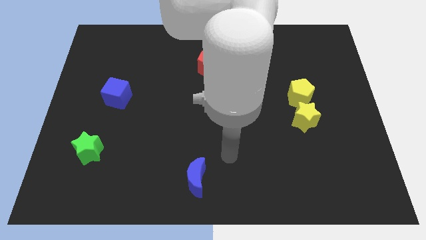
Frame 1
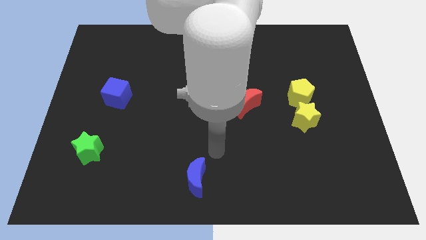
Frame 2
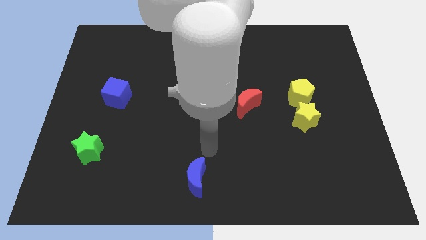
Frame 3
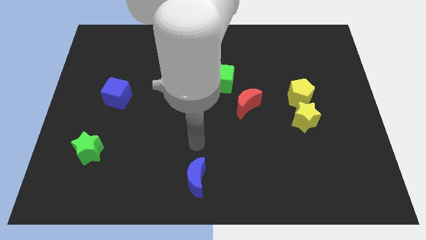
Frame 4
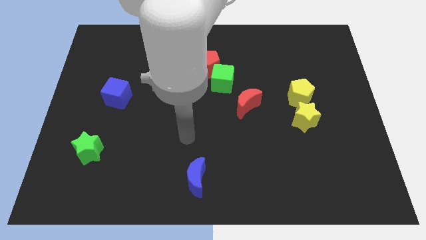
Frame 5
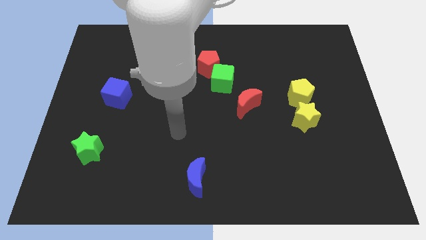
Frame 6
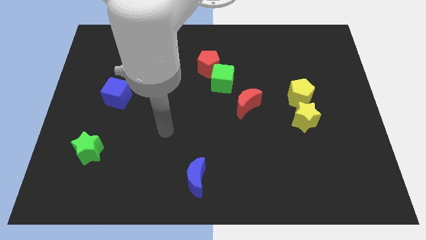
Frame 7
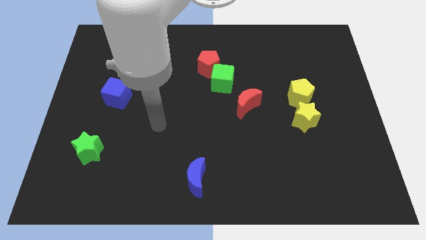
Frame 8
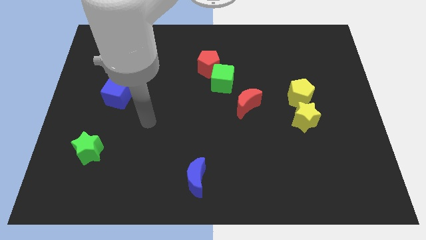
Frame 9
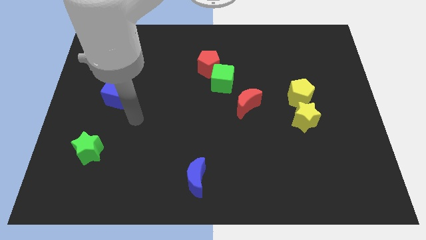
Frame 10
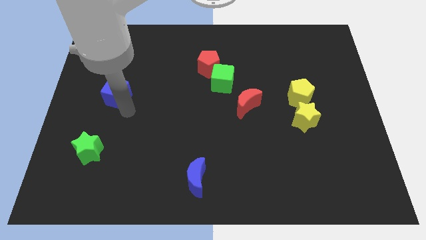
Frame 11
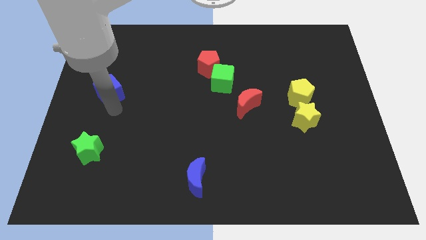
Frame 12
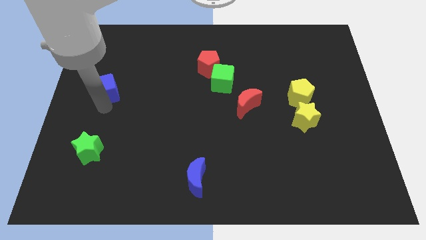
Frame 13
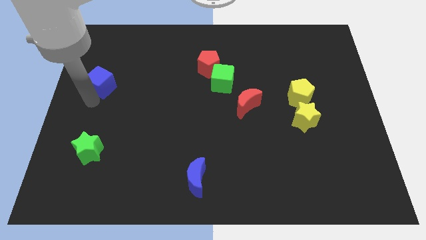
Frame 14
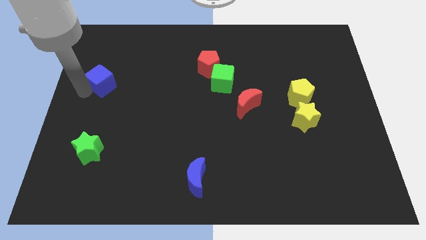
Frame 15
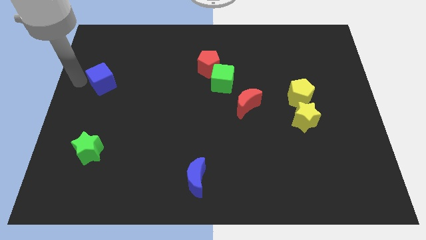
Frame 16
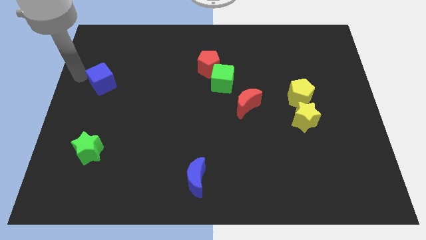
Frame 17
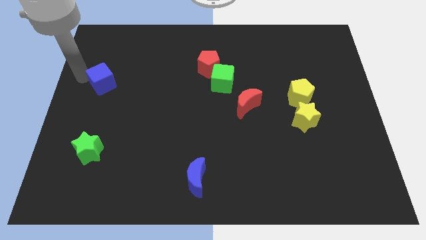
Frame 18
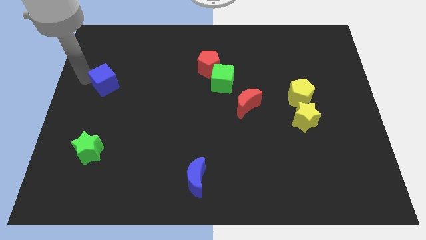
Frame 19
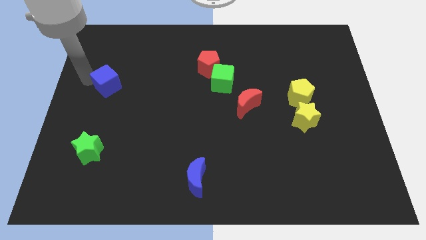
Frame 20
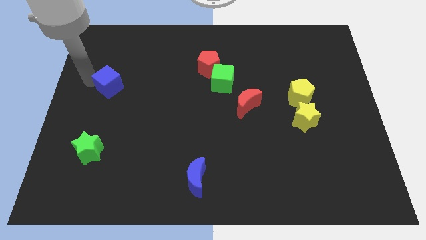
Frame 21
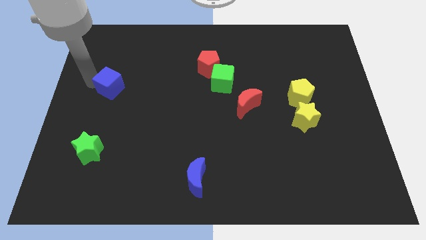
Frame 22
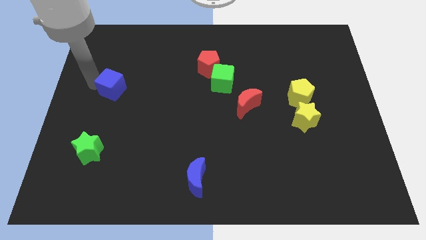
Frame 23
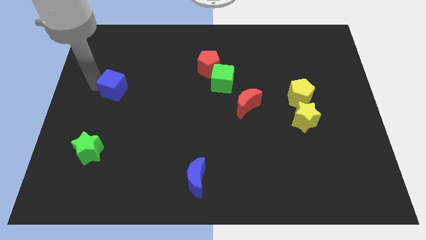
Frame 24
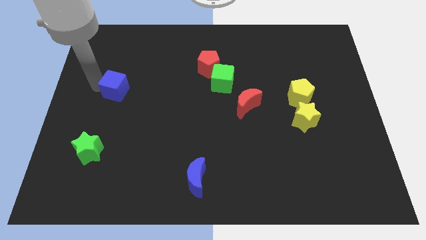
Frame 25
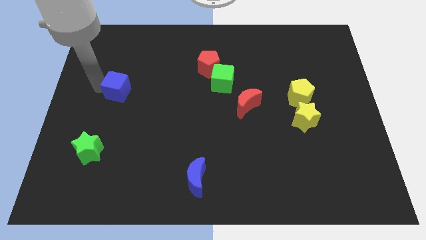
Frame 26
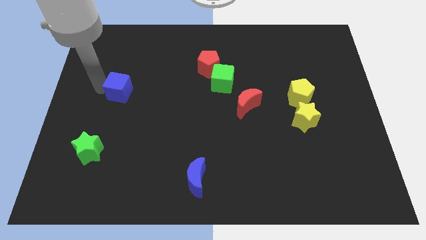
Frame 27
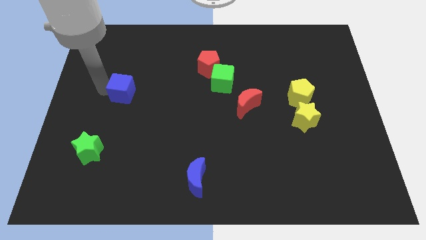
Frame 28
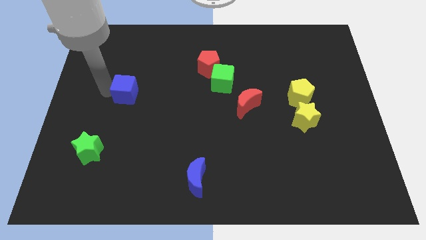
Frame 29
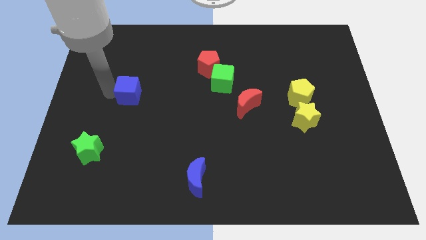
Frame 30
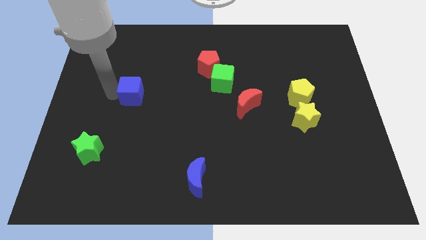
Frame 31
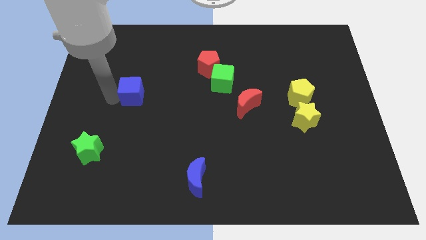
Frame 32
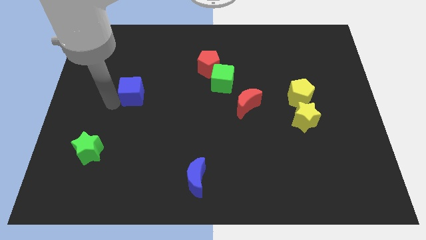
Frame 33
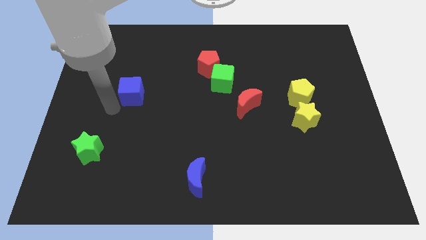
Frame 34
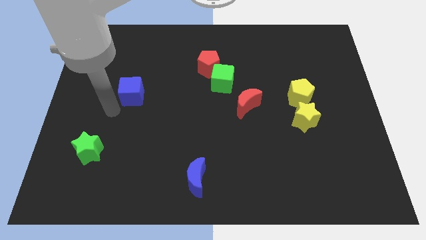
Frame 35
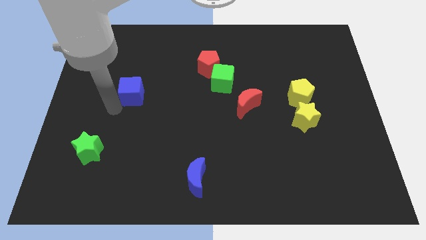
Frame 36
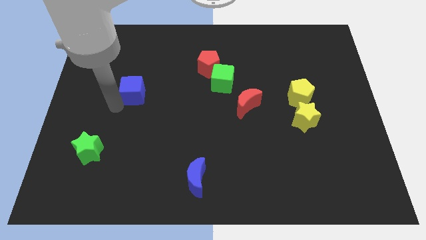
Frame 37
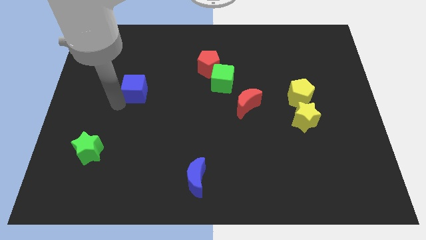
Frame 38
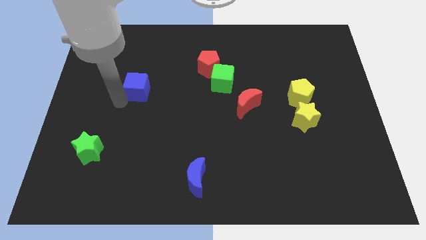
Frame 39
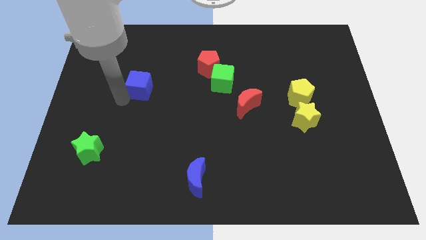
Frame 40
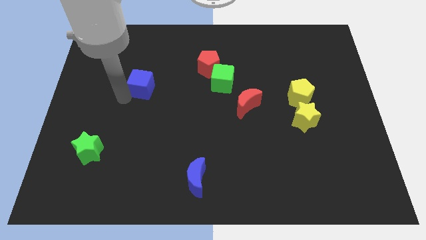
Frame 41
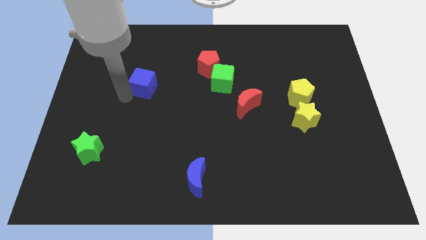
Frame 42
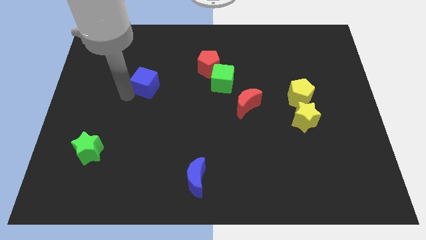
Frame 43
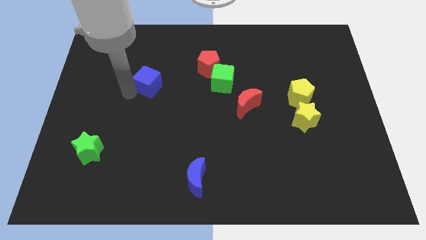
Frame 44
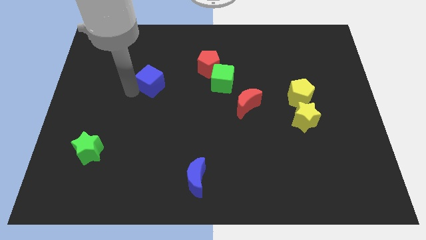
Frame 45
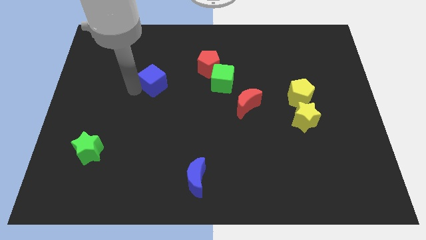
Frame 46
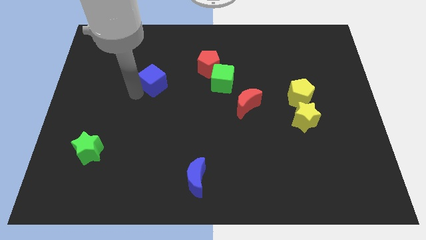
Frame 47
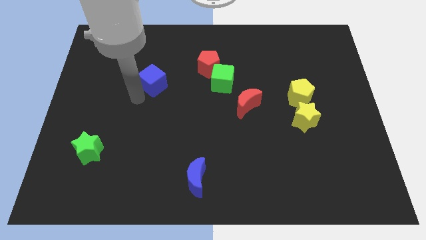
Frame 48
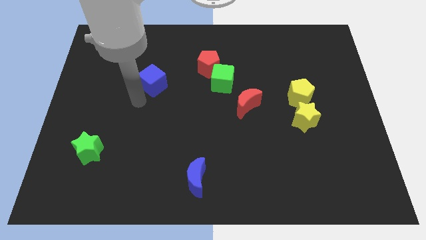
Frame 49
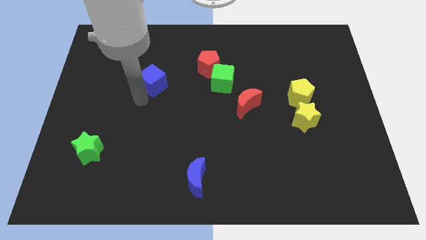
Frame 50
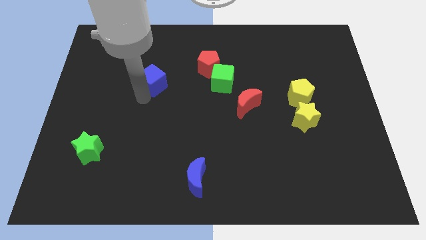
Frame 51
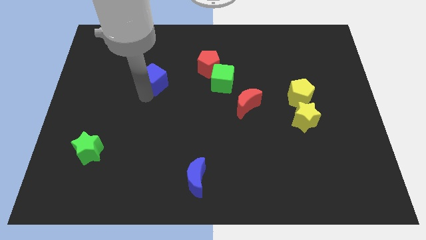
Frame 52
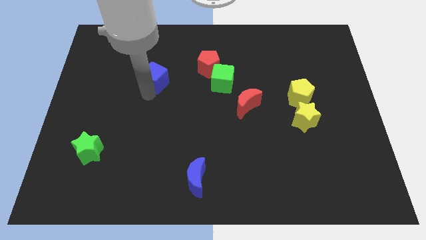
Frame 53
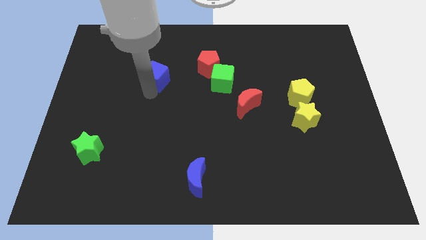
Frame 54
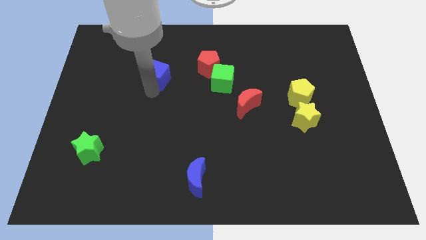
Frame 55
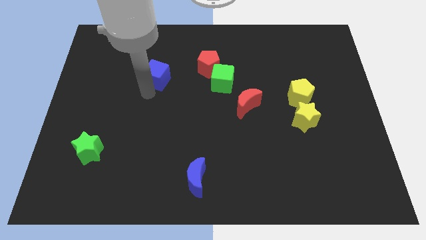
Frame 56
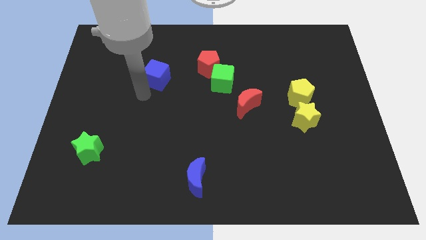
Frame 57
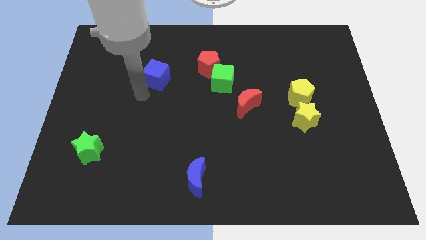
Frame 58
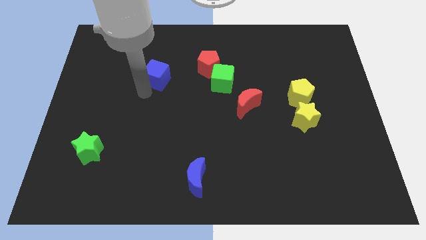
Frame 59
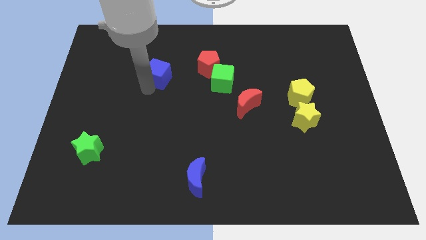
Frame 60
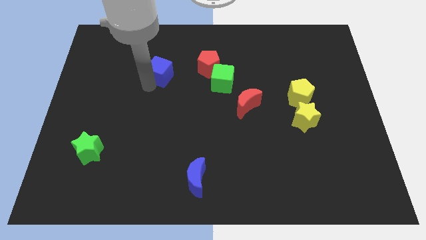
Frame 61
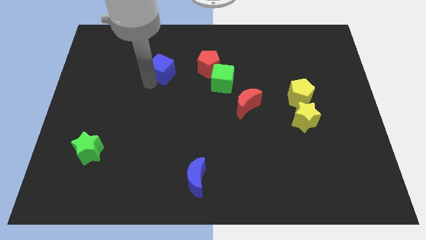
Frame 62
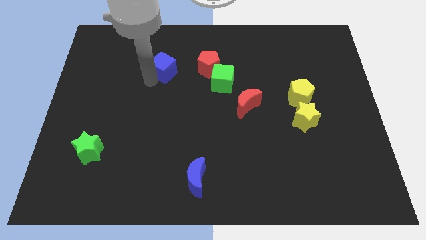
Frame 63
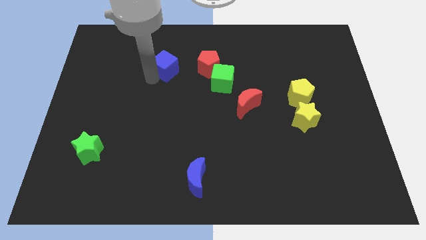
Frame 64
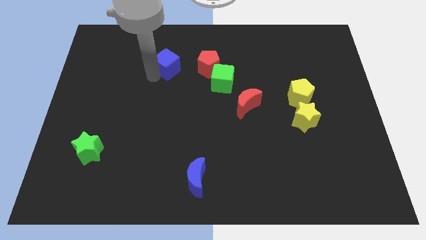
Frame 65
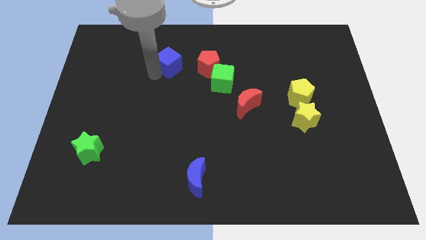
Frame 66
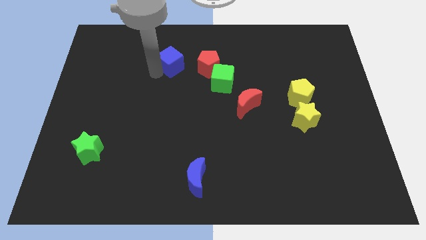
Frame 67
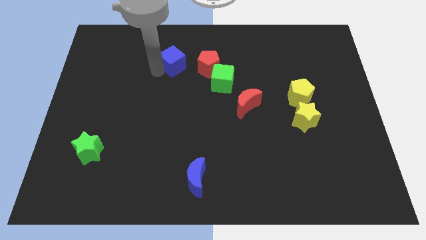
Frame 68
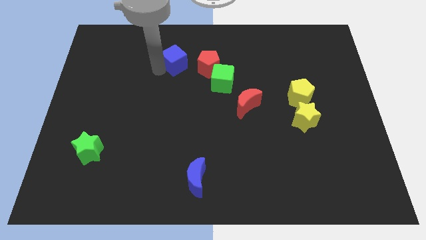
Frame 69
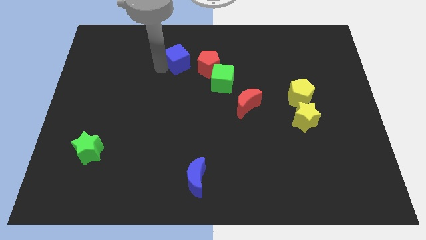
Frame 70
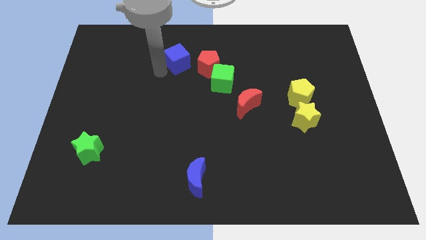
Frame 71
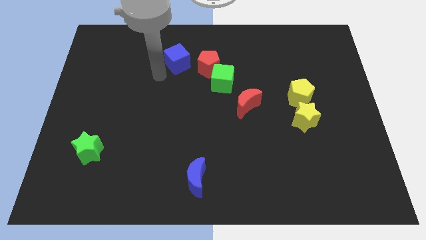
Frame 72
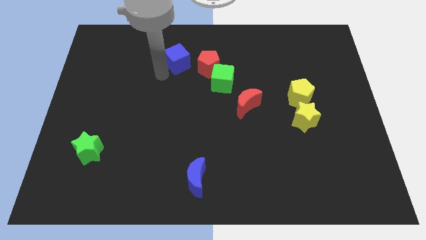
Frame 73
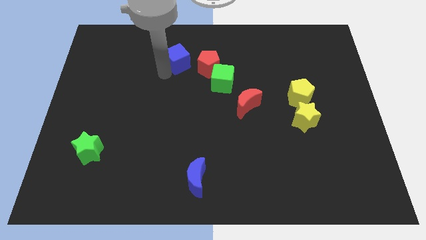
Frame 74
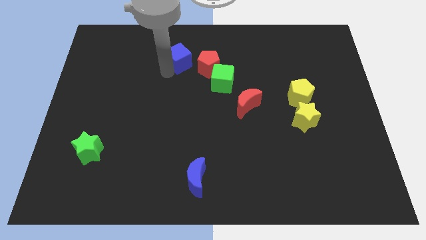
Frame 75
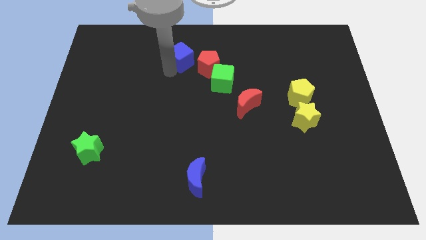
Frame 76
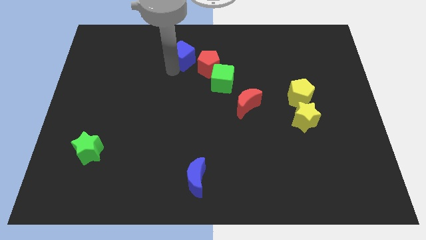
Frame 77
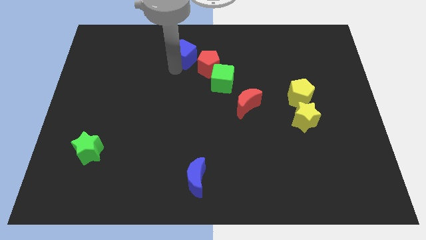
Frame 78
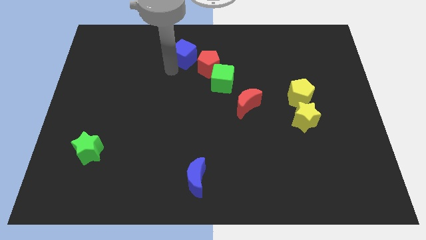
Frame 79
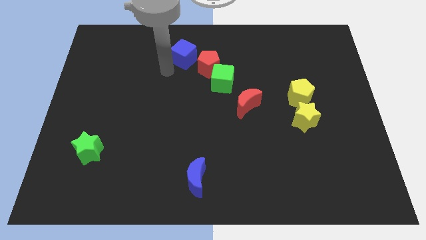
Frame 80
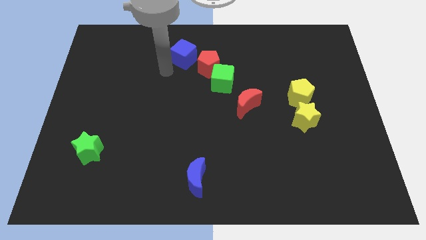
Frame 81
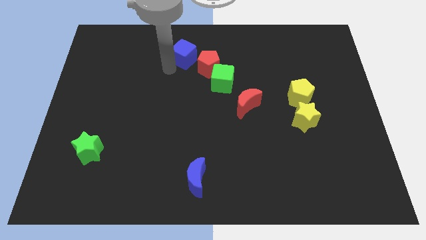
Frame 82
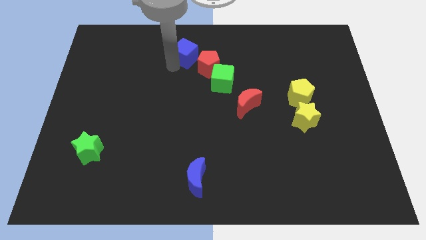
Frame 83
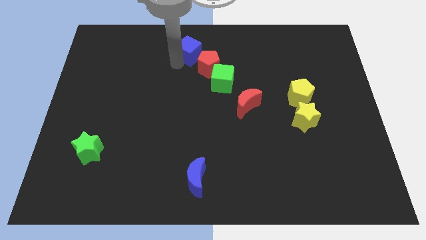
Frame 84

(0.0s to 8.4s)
move the blue cube to the top side

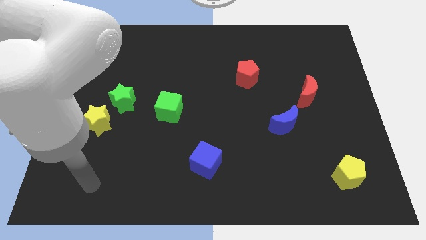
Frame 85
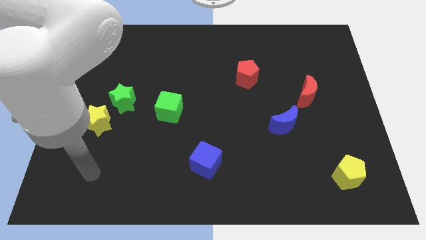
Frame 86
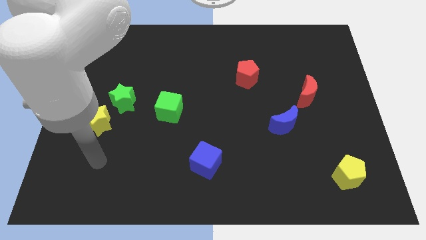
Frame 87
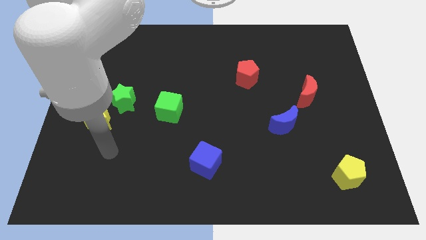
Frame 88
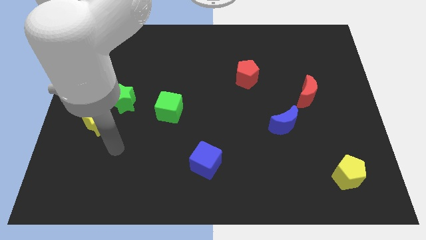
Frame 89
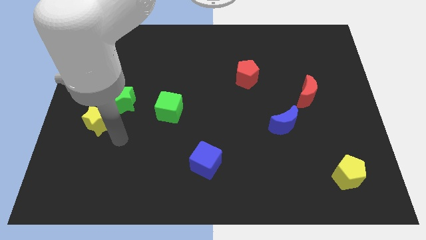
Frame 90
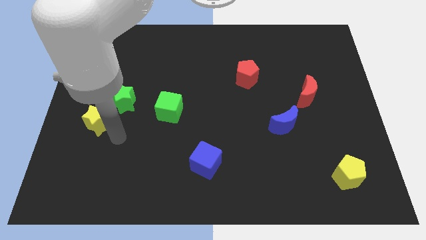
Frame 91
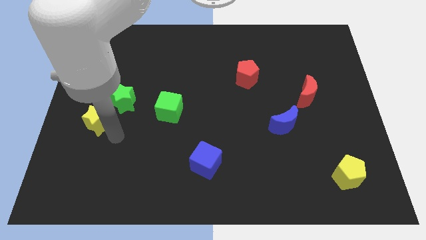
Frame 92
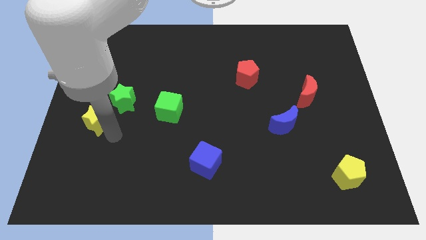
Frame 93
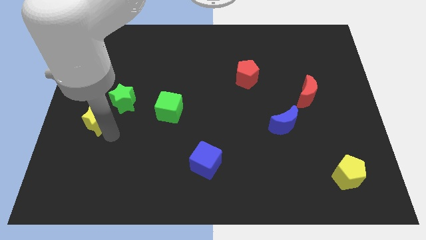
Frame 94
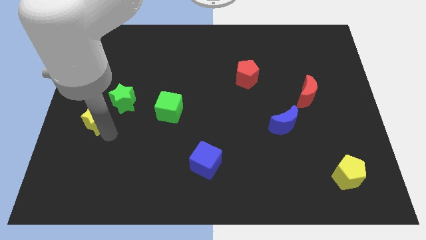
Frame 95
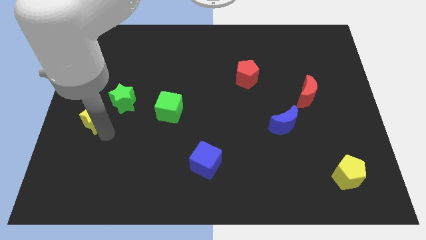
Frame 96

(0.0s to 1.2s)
push the yellow star to the left side
